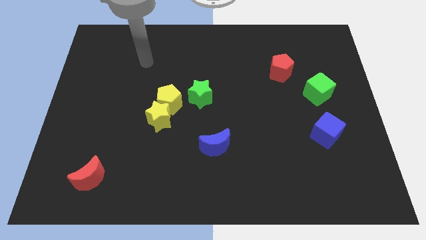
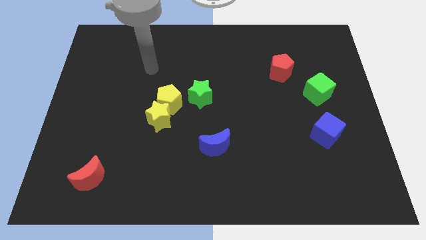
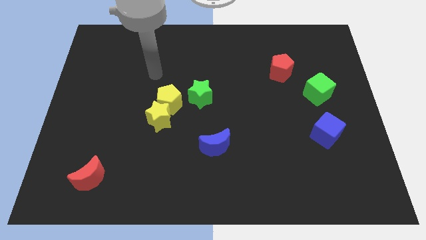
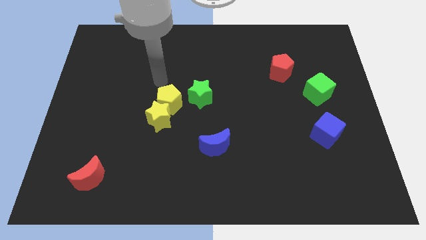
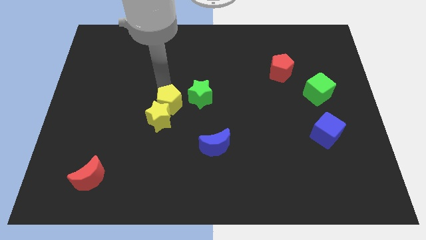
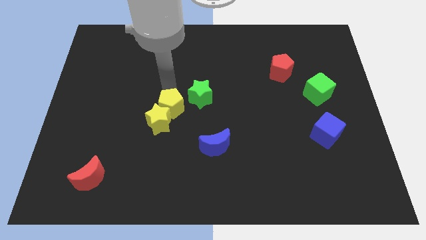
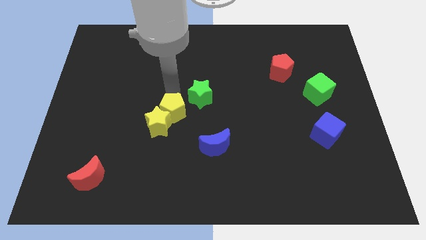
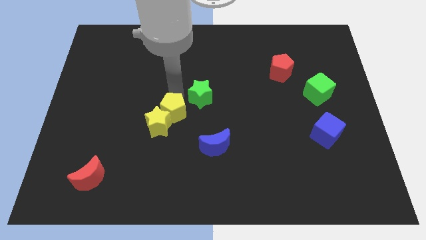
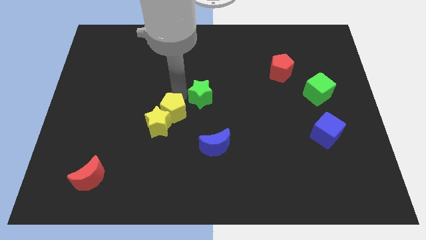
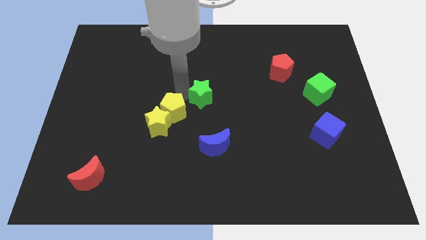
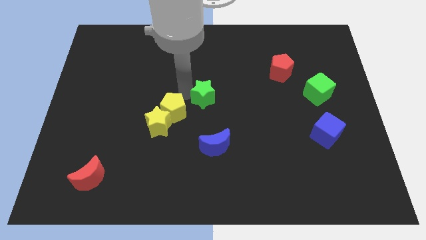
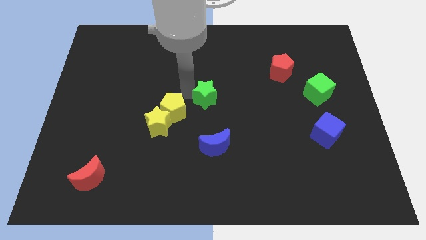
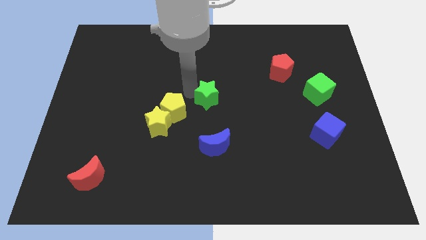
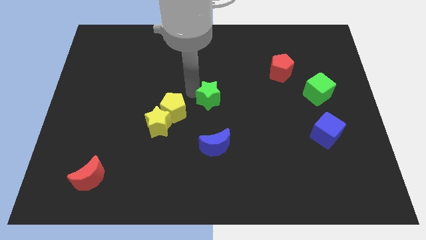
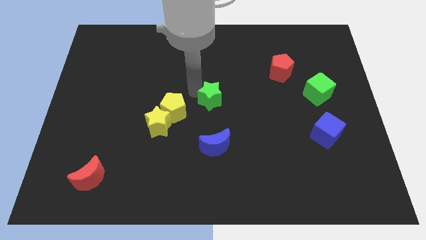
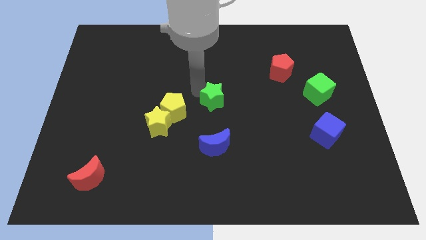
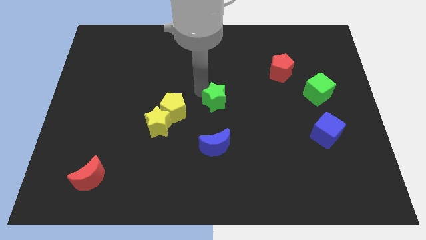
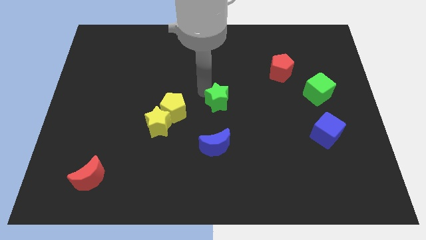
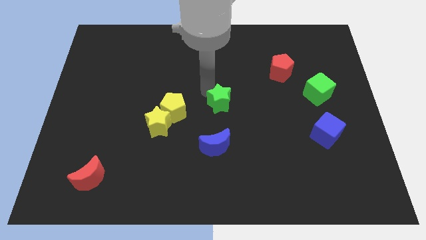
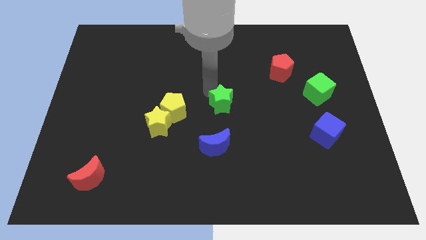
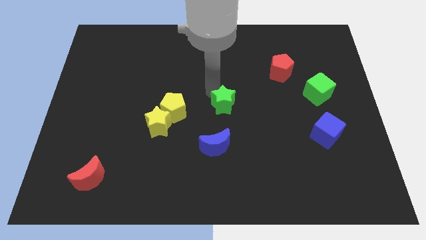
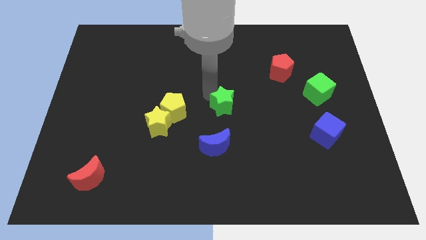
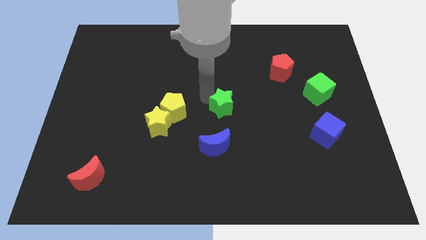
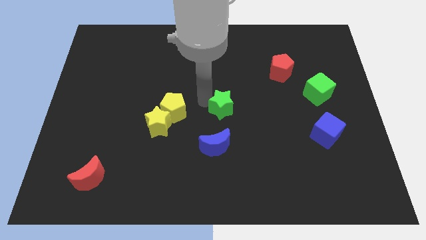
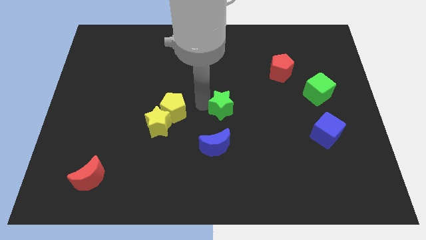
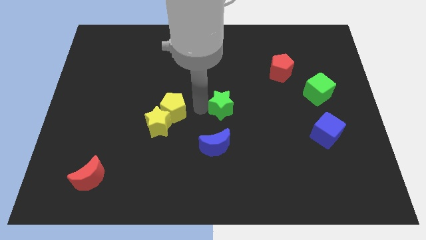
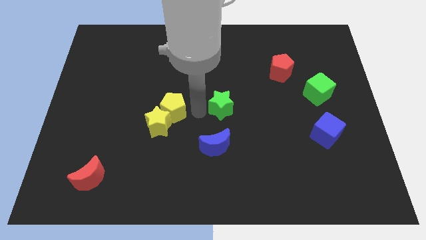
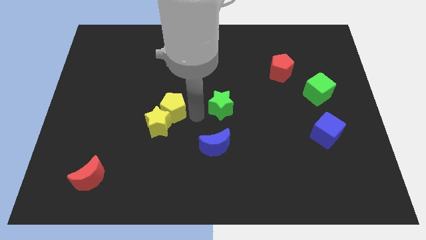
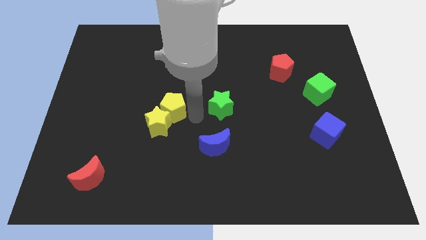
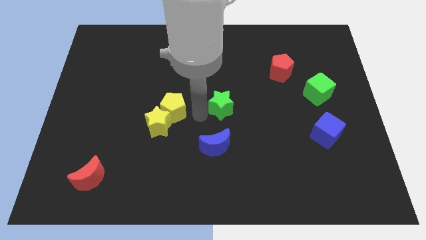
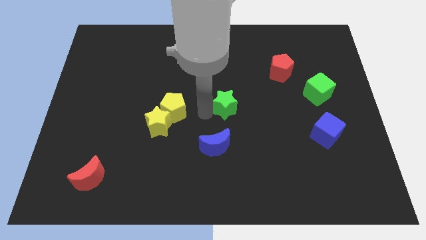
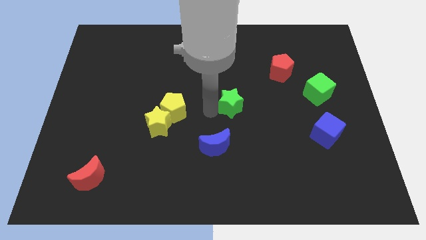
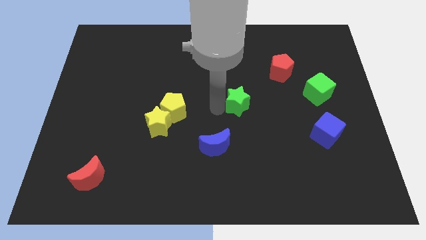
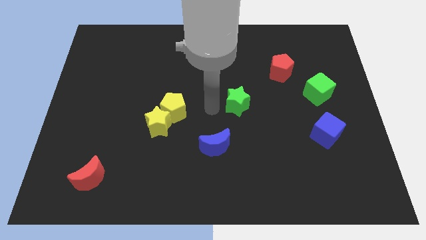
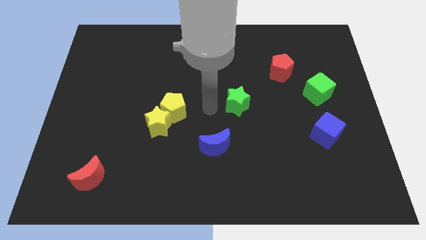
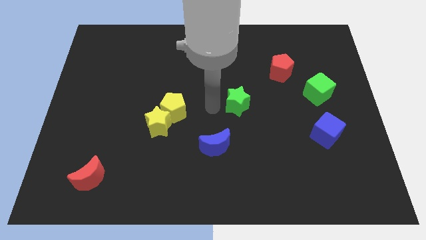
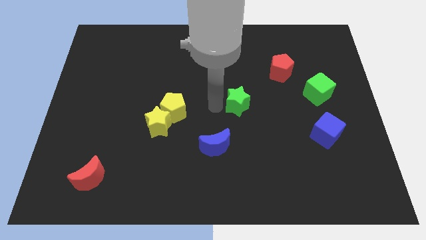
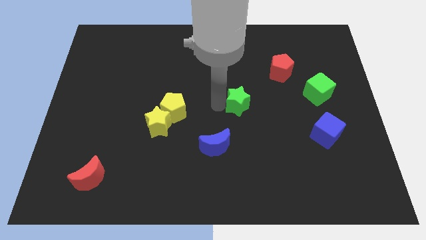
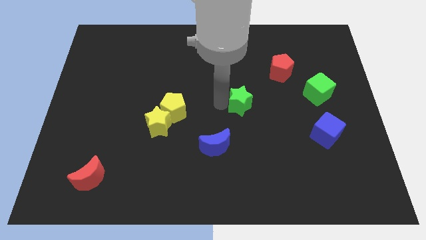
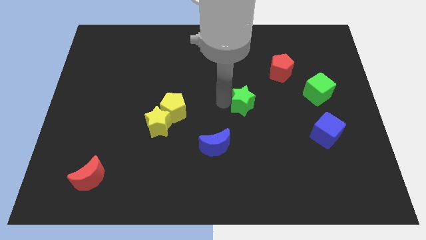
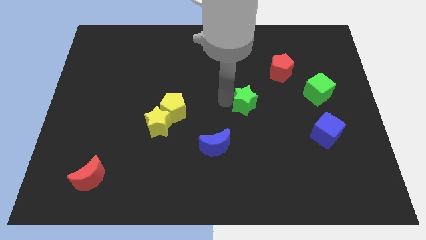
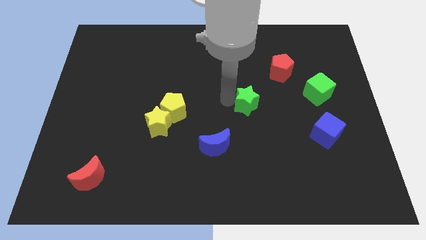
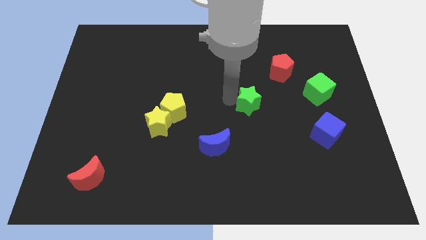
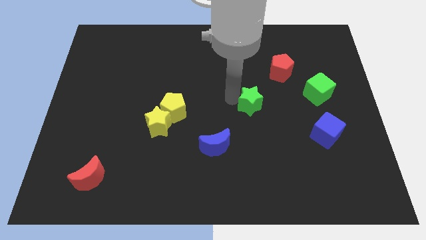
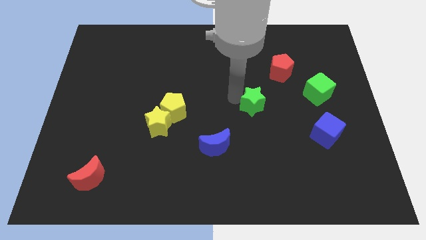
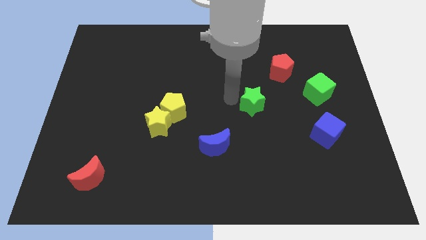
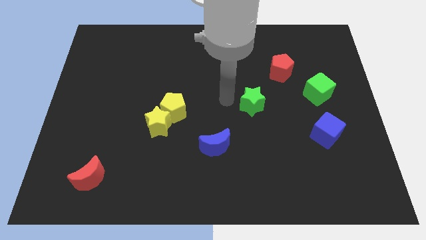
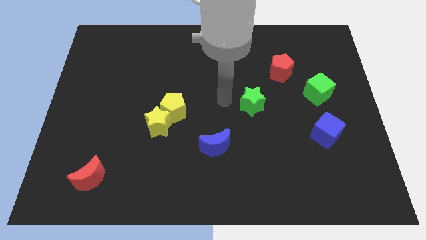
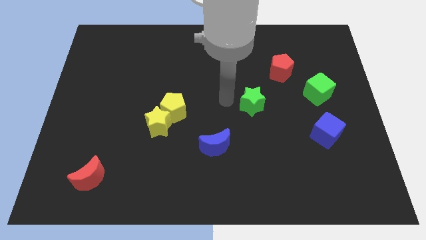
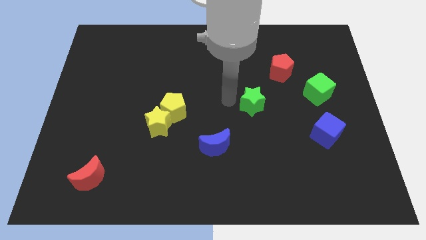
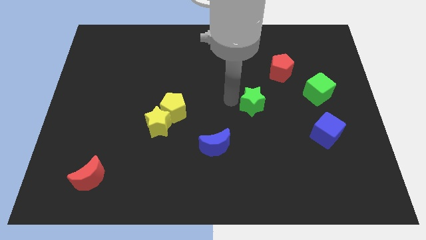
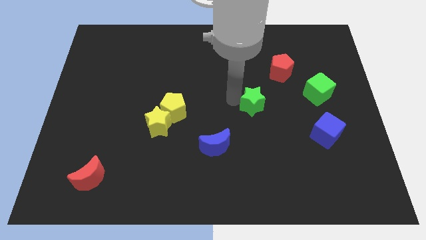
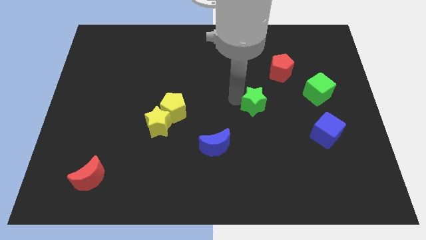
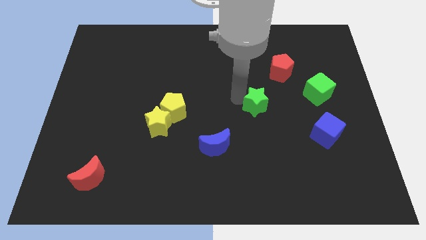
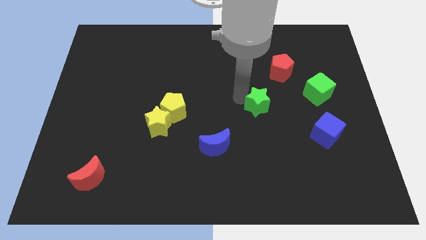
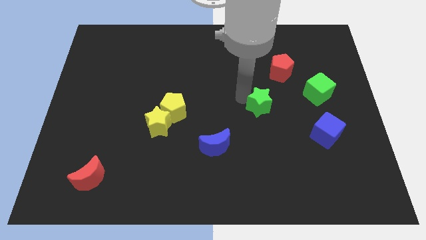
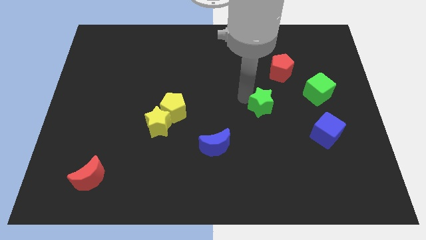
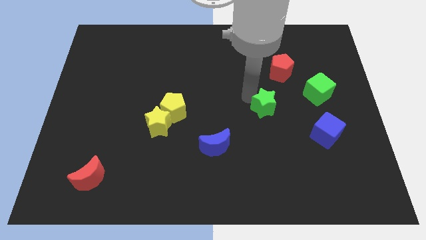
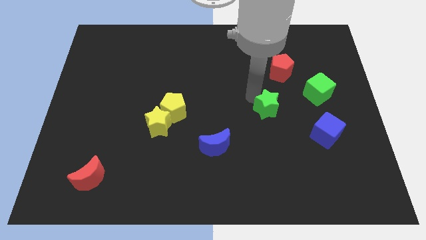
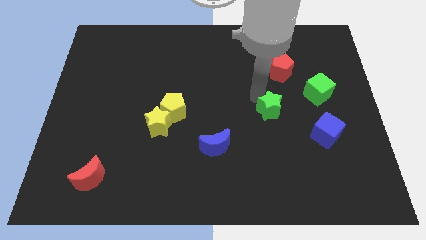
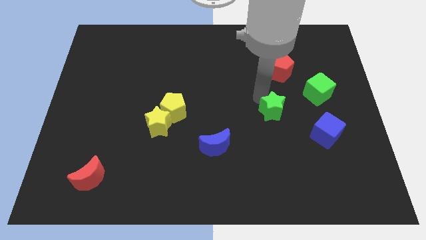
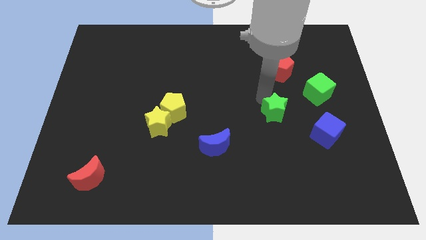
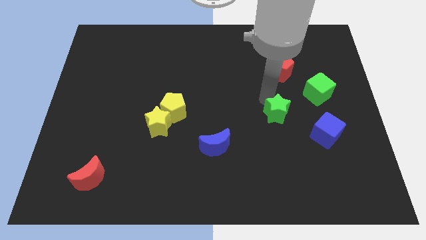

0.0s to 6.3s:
move the green star to the bottom left side of the green cube

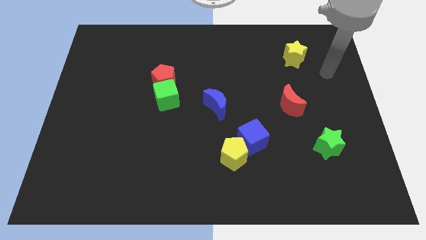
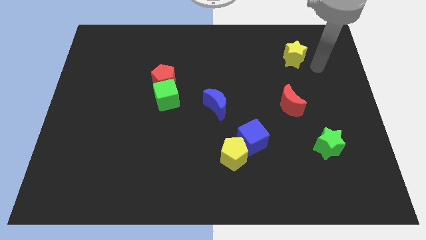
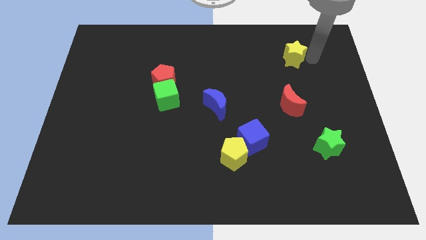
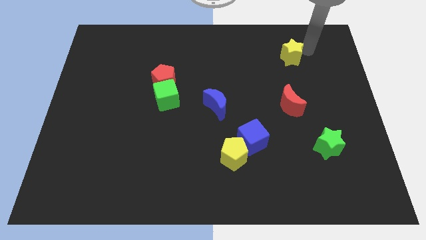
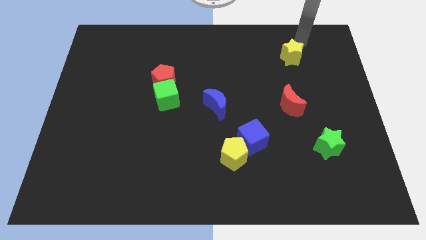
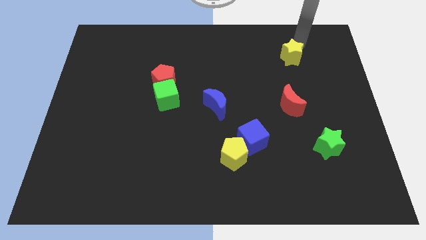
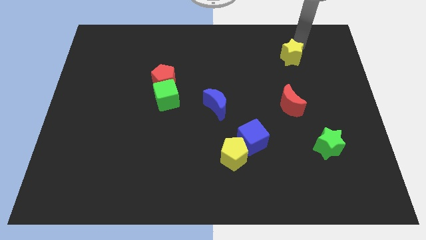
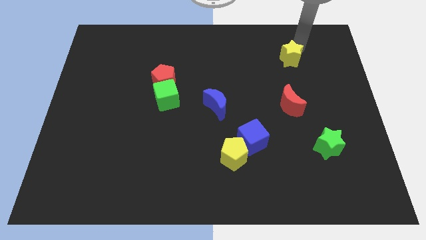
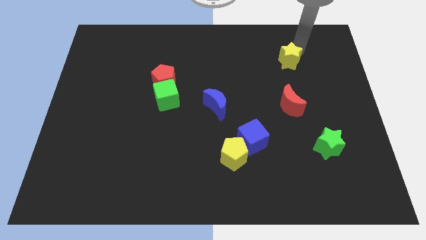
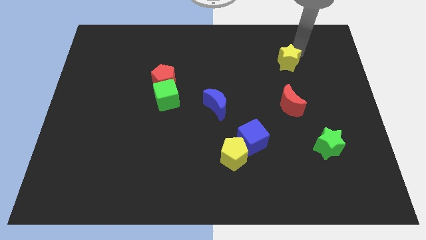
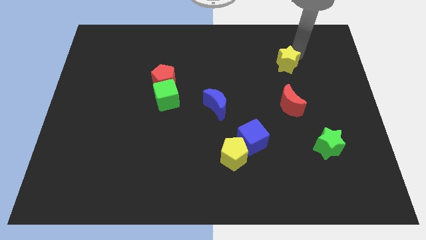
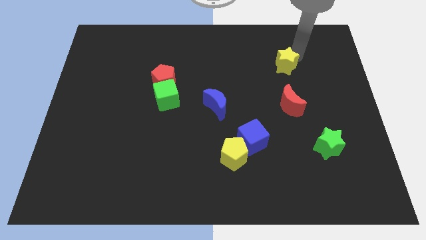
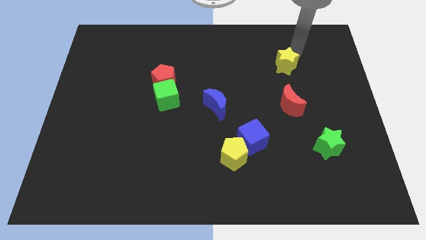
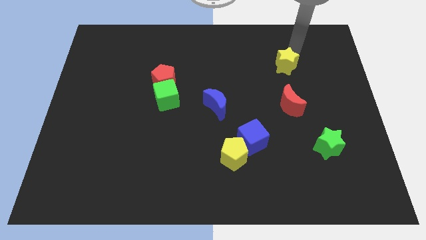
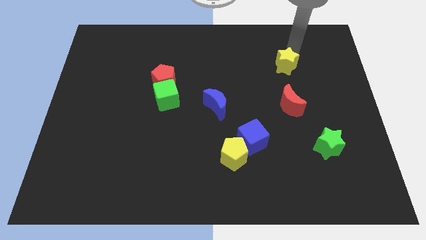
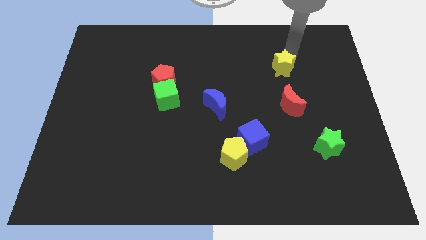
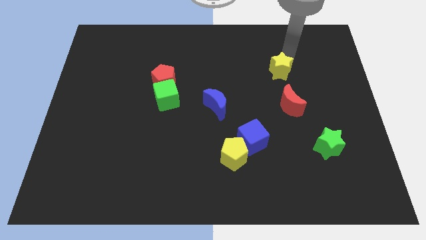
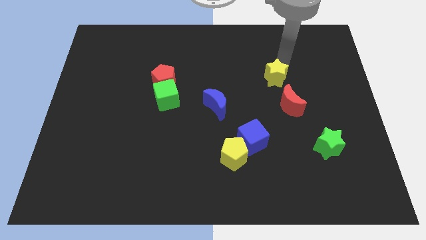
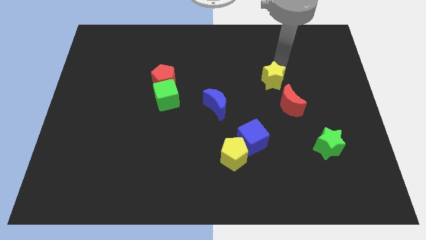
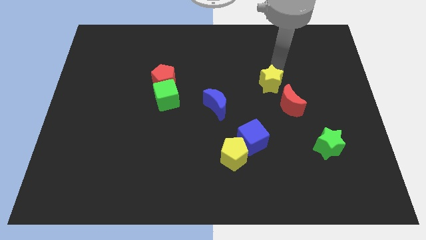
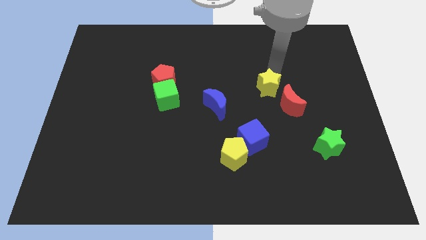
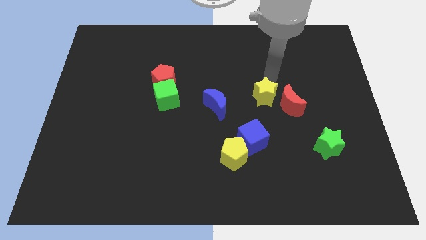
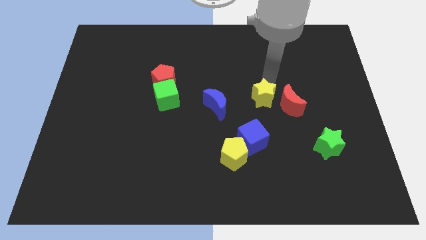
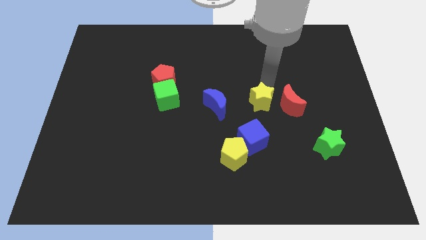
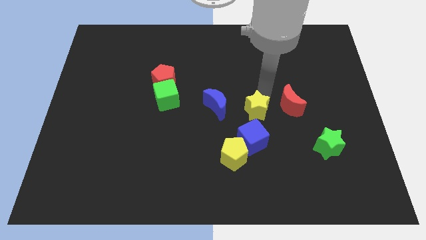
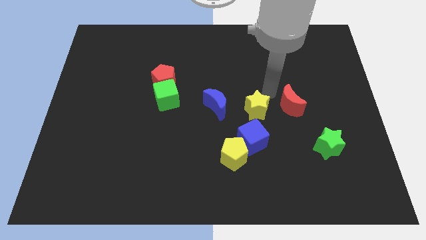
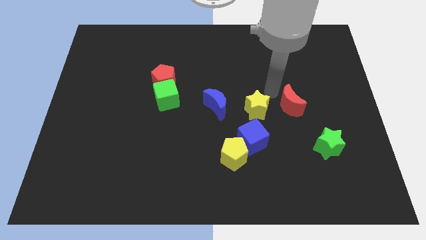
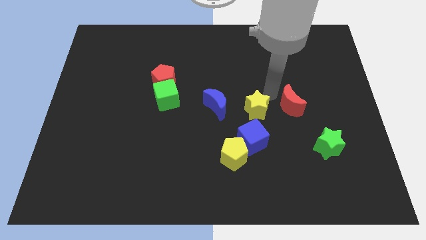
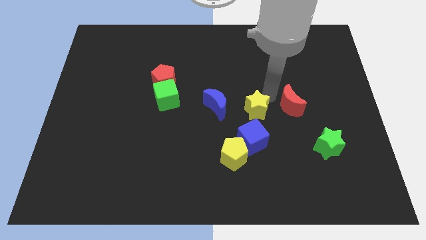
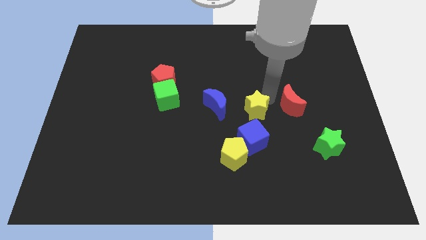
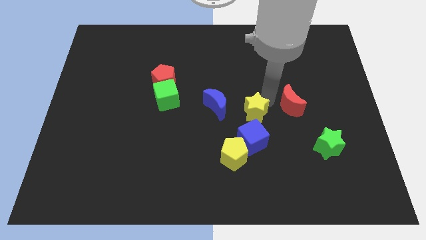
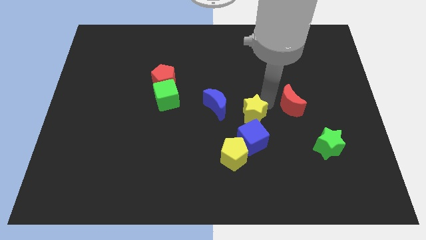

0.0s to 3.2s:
slide the yellow star diagonally down and to the right of the blue moon
